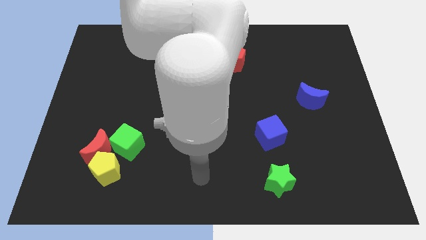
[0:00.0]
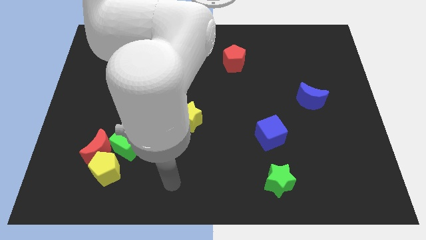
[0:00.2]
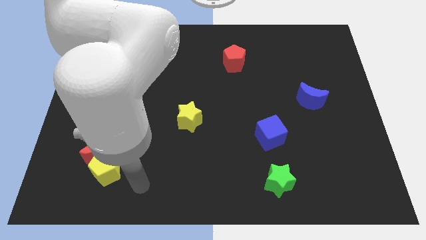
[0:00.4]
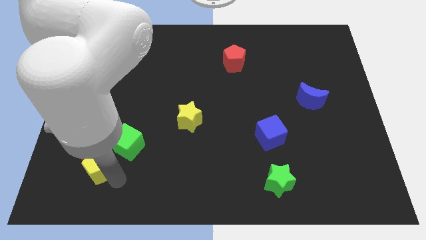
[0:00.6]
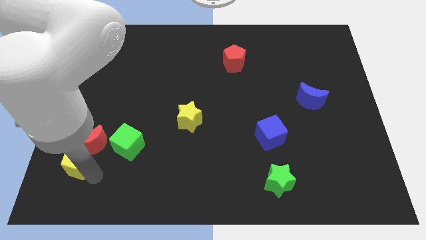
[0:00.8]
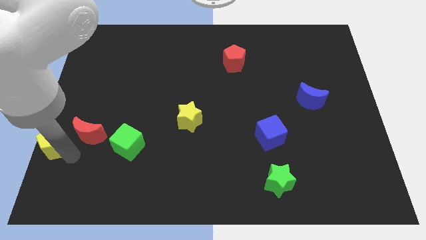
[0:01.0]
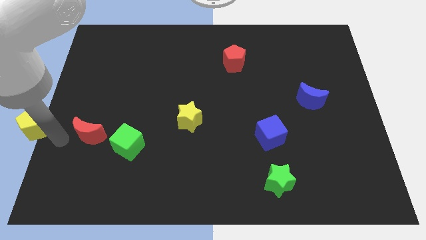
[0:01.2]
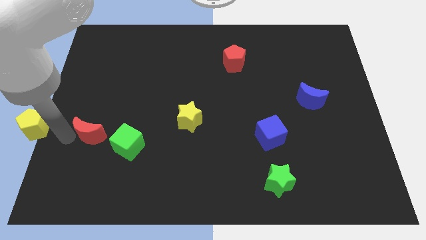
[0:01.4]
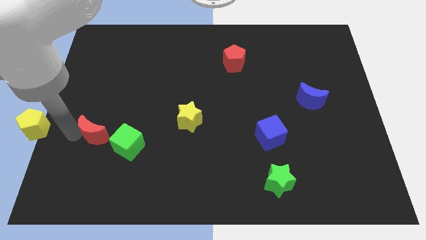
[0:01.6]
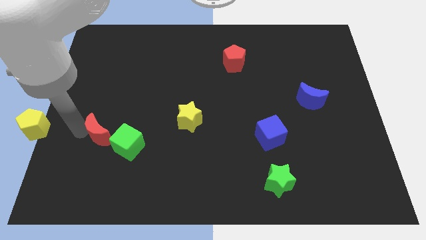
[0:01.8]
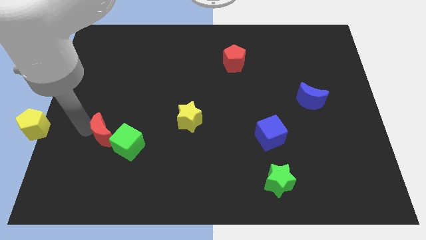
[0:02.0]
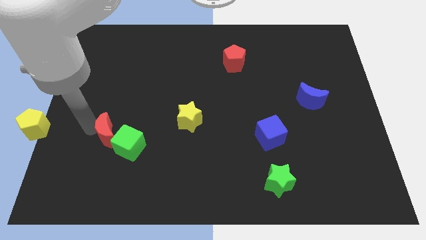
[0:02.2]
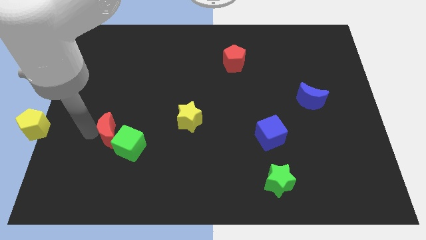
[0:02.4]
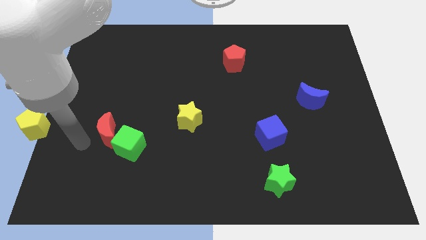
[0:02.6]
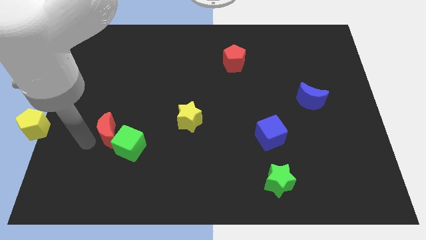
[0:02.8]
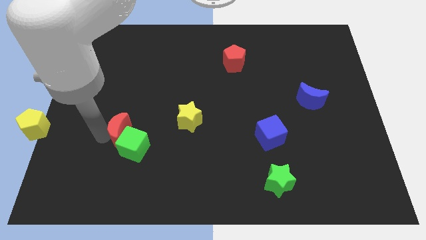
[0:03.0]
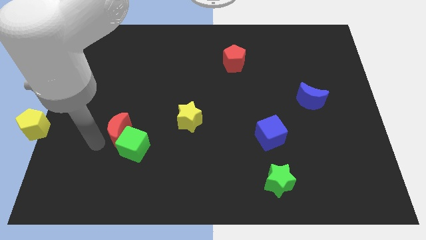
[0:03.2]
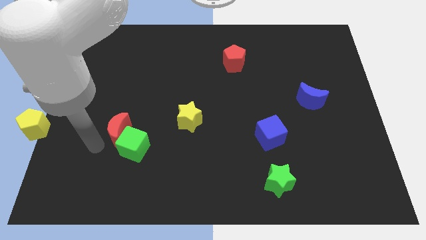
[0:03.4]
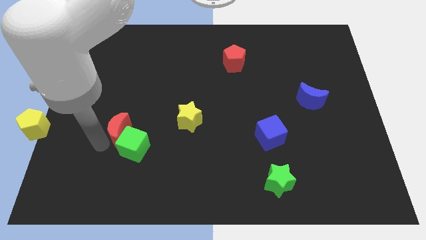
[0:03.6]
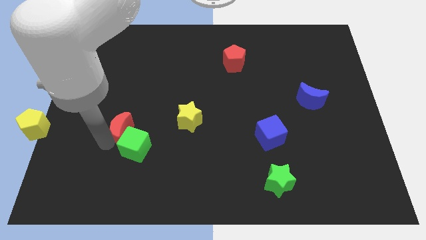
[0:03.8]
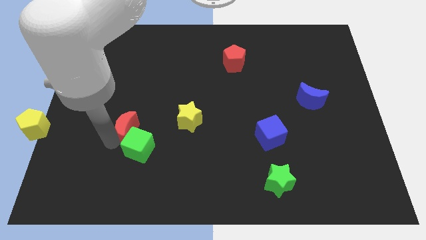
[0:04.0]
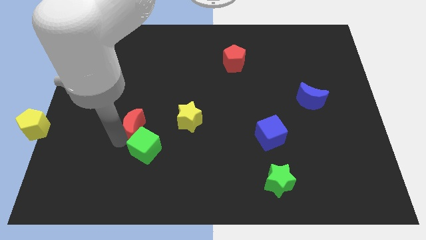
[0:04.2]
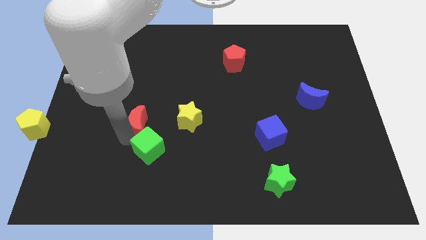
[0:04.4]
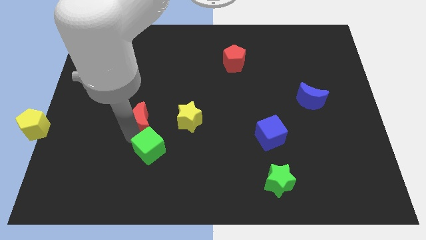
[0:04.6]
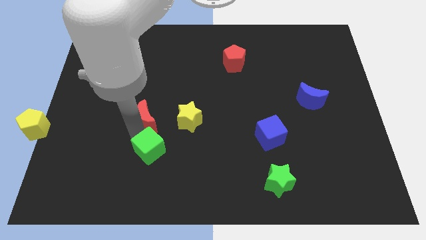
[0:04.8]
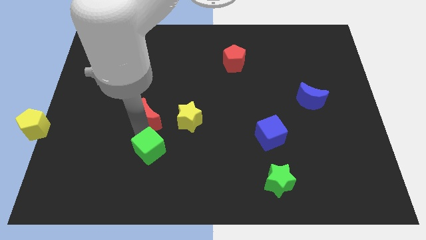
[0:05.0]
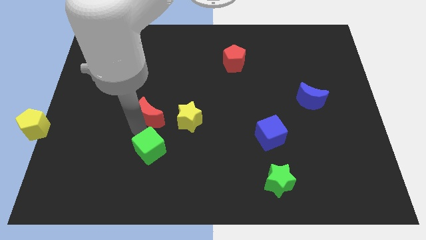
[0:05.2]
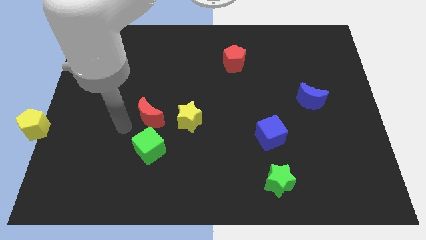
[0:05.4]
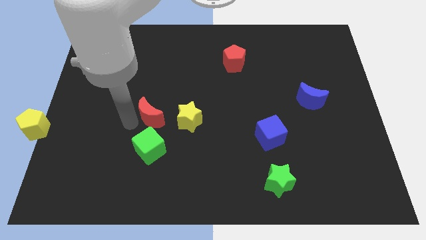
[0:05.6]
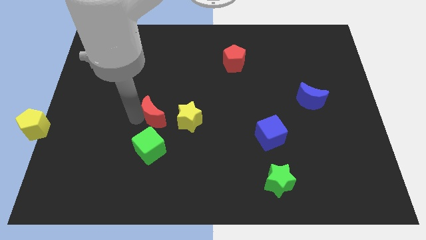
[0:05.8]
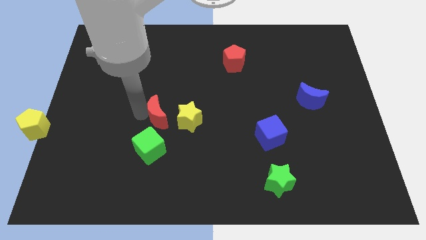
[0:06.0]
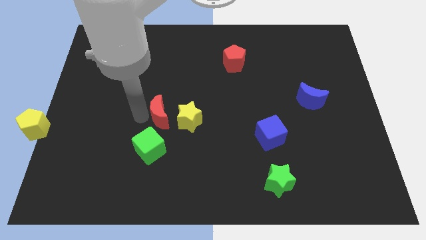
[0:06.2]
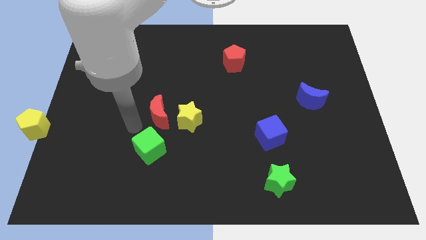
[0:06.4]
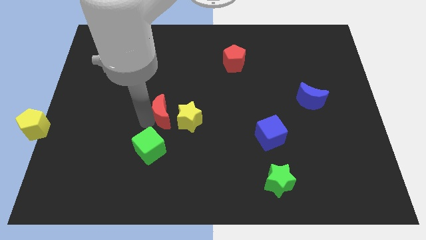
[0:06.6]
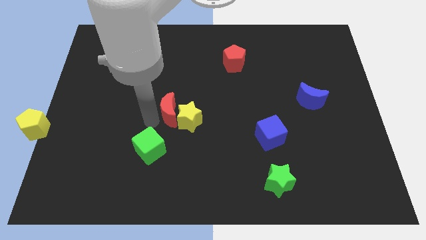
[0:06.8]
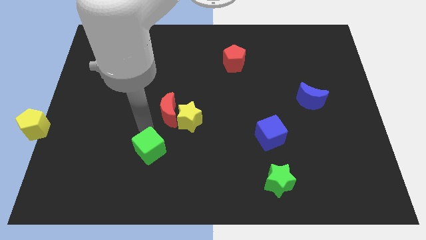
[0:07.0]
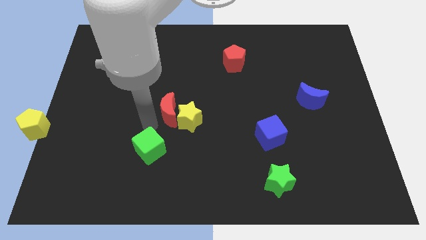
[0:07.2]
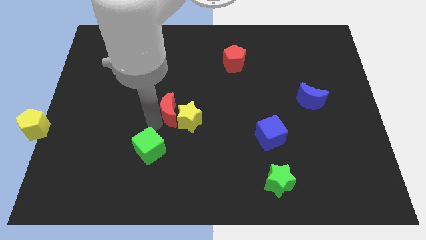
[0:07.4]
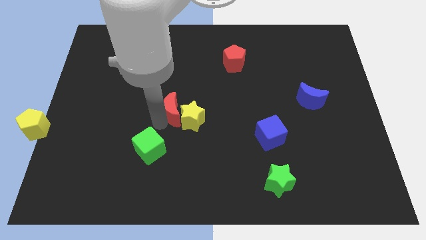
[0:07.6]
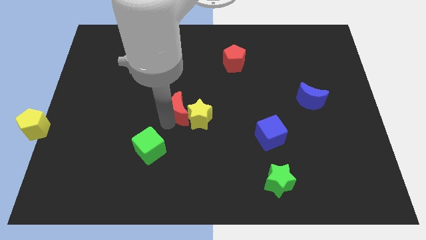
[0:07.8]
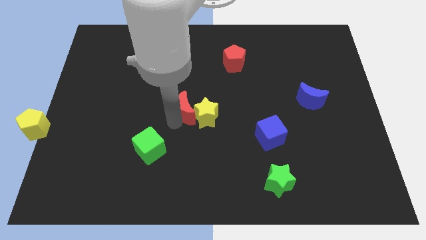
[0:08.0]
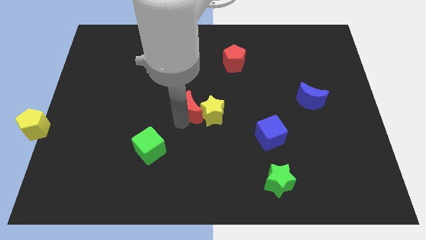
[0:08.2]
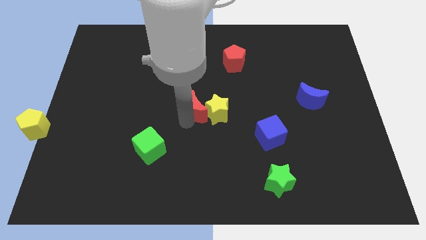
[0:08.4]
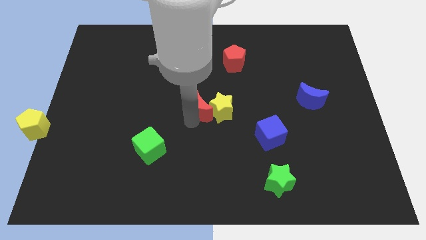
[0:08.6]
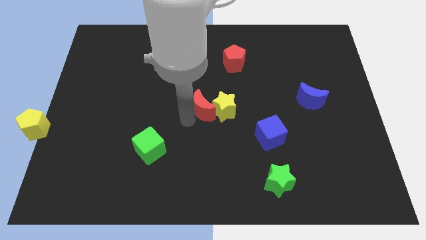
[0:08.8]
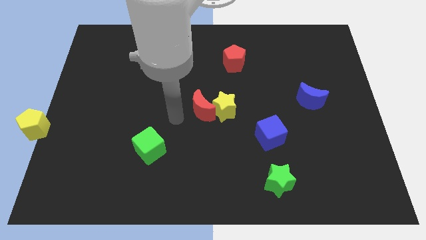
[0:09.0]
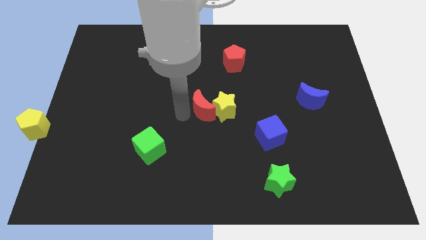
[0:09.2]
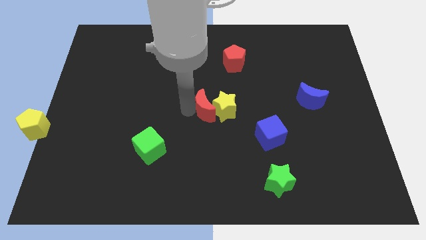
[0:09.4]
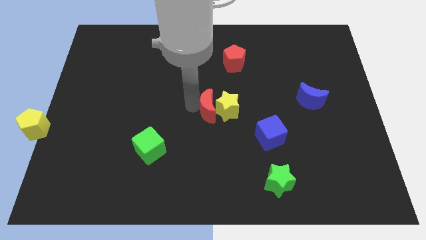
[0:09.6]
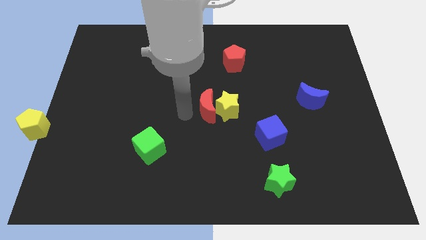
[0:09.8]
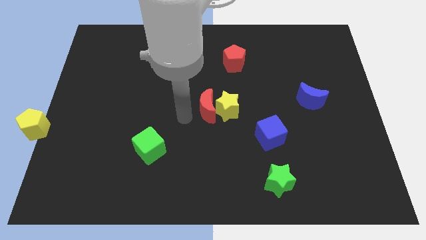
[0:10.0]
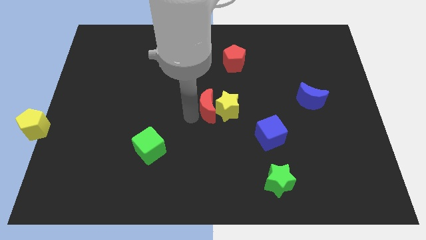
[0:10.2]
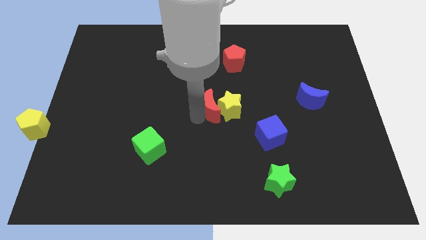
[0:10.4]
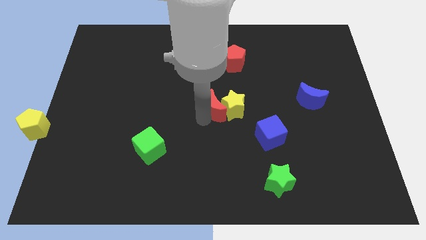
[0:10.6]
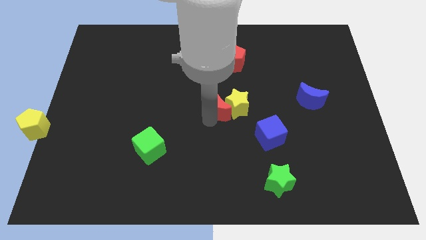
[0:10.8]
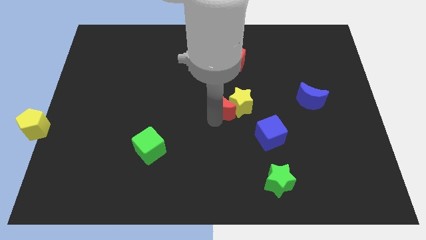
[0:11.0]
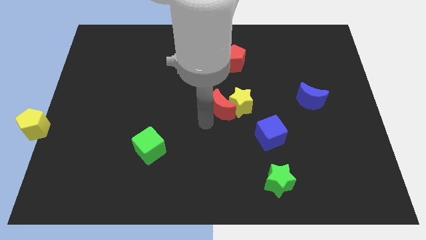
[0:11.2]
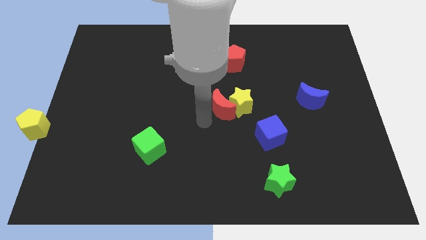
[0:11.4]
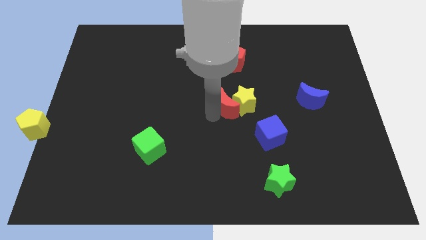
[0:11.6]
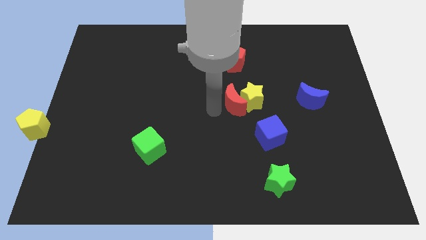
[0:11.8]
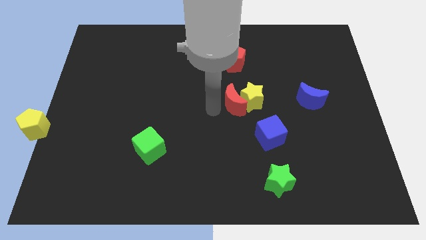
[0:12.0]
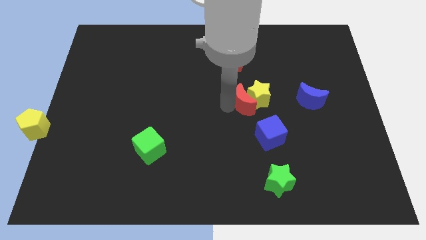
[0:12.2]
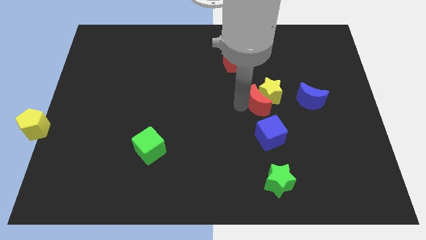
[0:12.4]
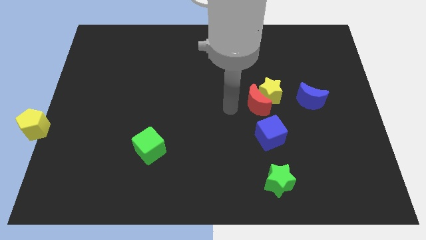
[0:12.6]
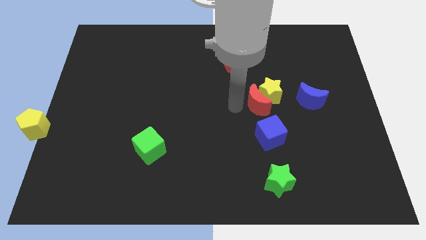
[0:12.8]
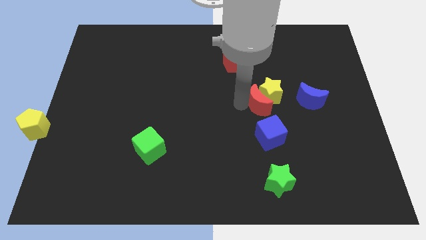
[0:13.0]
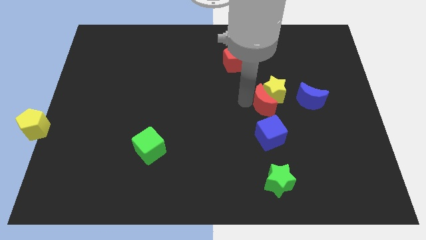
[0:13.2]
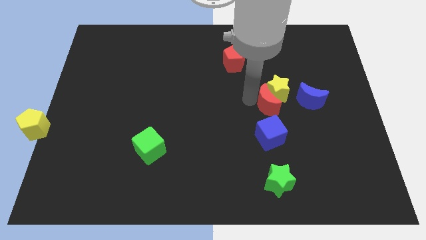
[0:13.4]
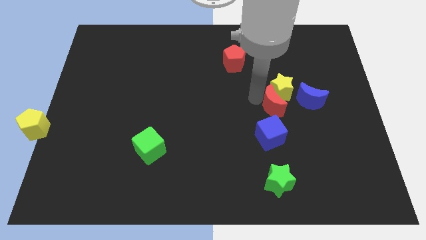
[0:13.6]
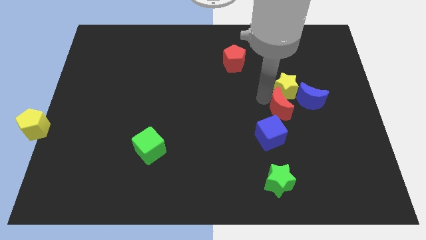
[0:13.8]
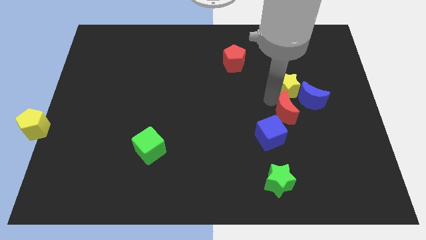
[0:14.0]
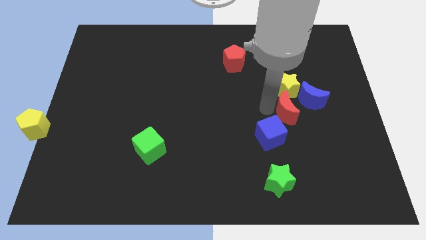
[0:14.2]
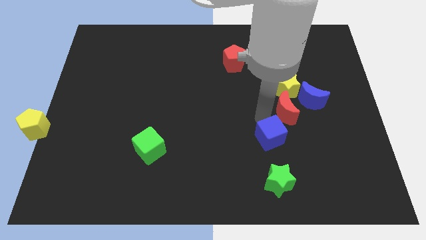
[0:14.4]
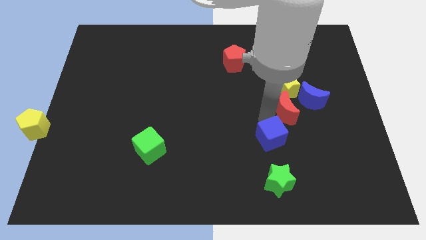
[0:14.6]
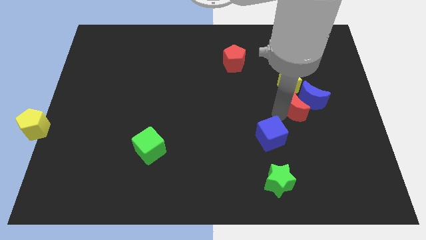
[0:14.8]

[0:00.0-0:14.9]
put the red moon close to the blue moon
